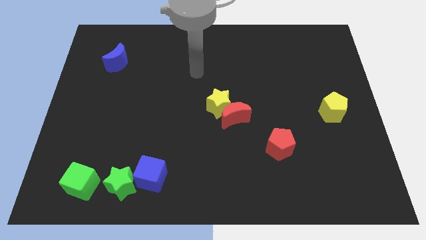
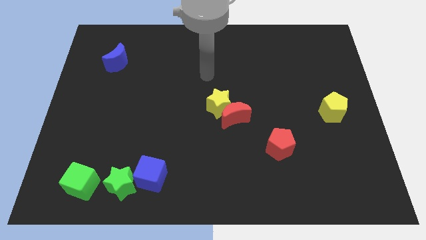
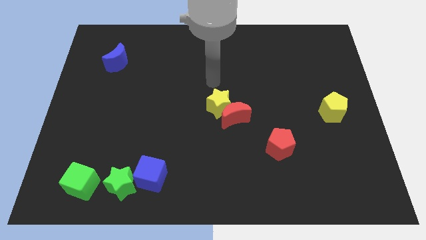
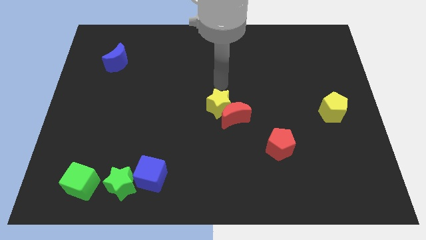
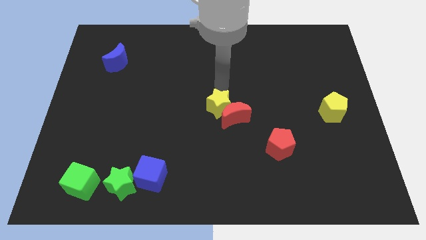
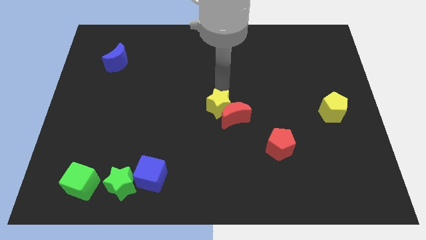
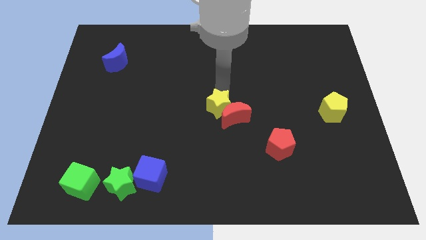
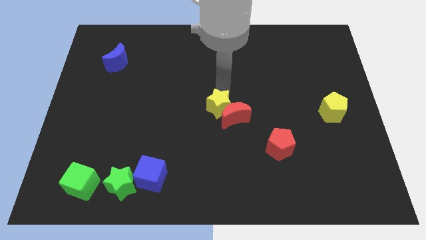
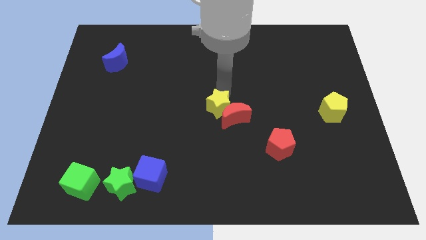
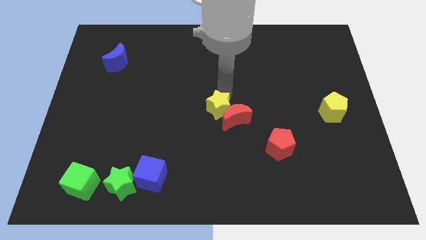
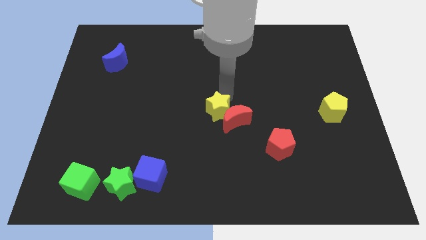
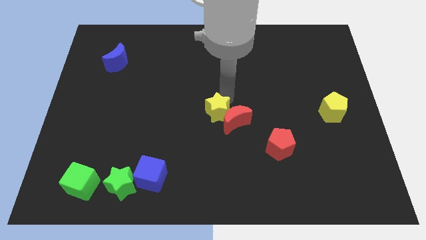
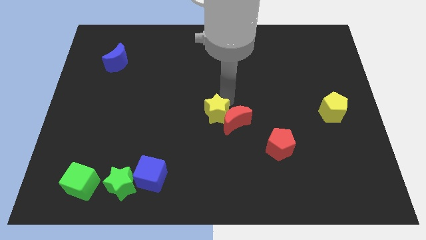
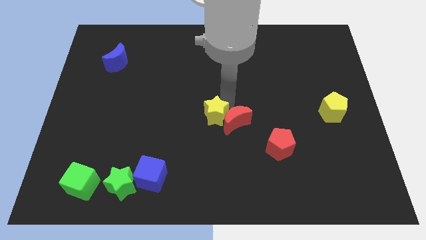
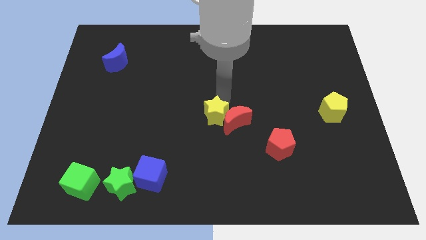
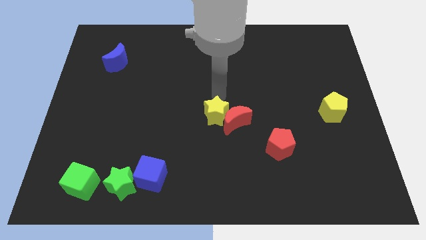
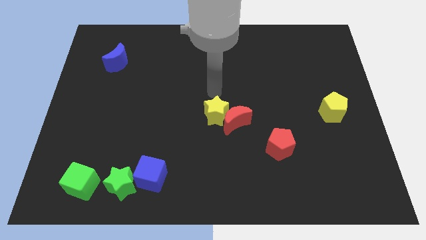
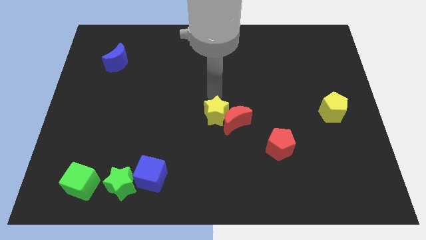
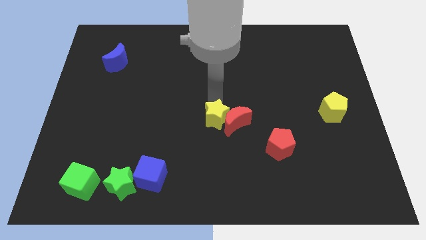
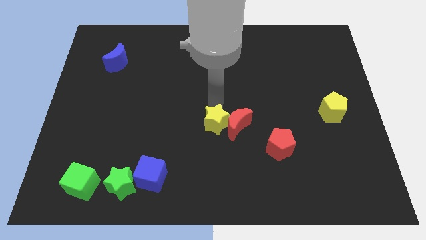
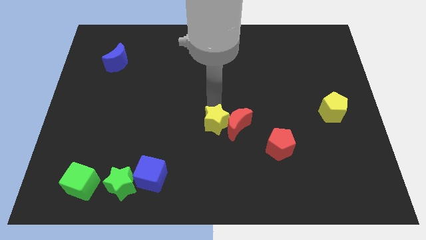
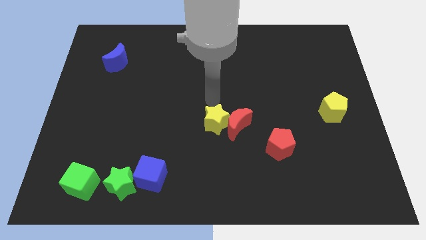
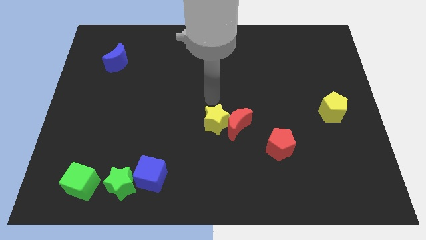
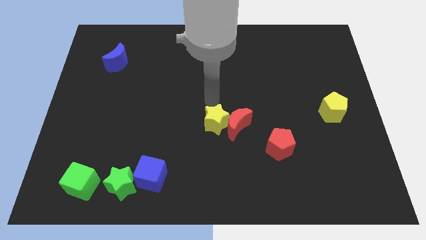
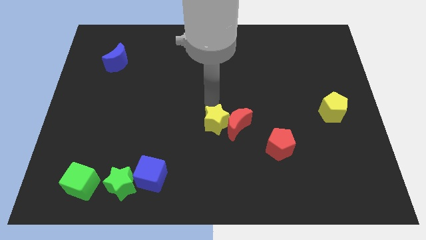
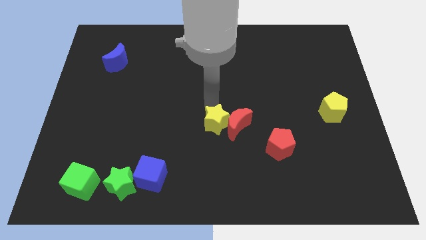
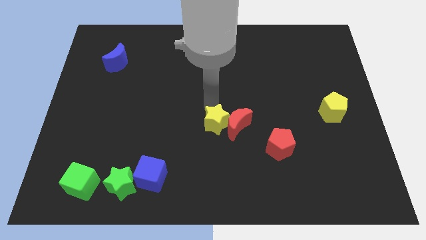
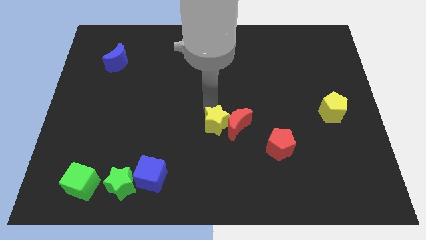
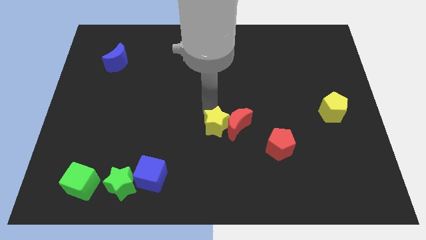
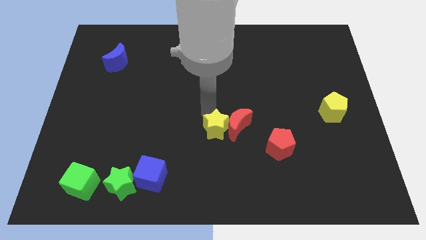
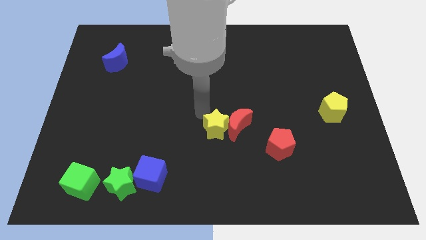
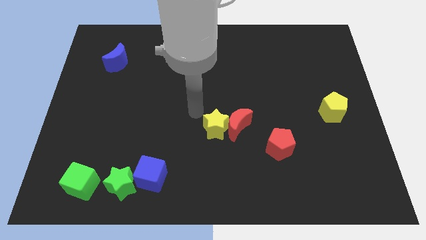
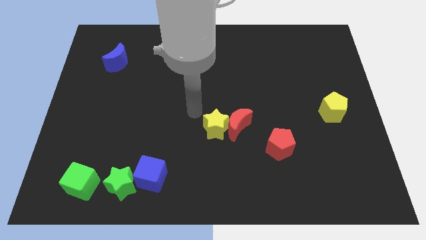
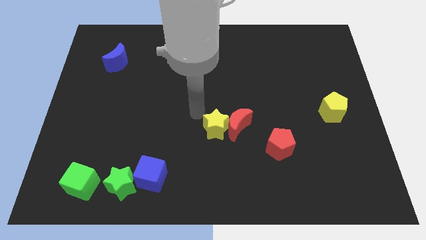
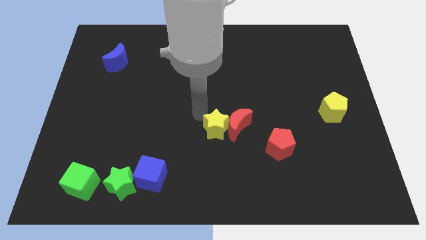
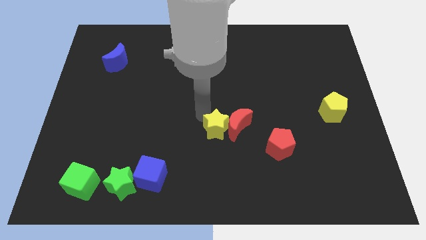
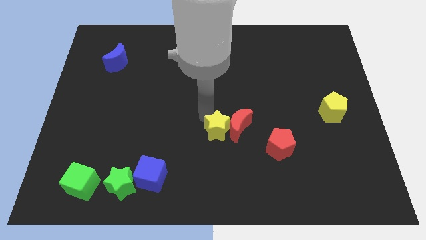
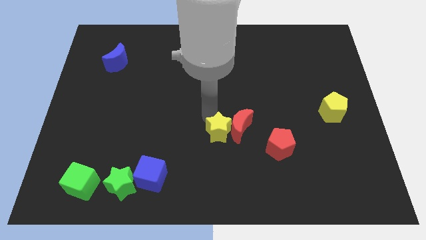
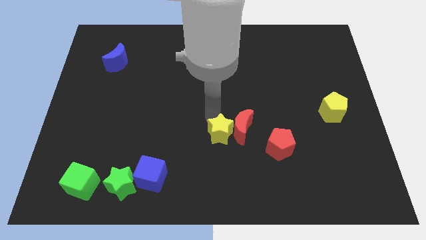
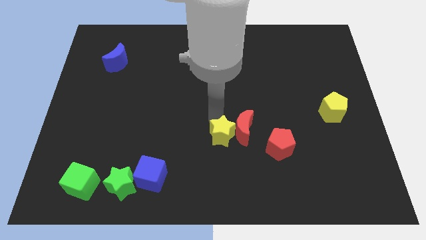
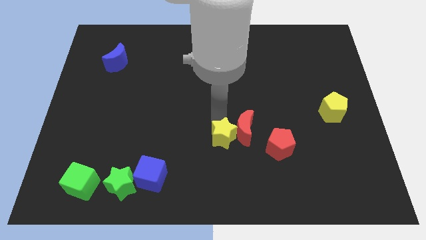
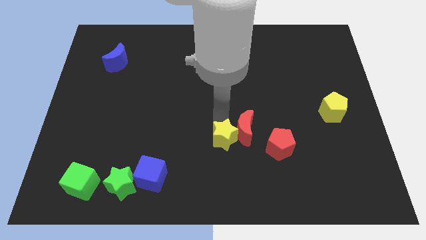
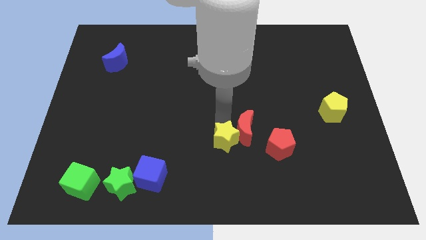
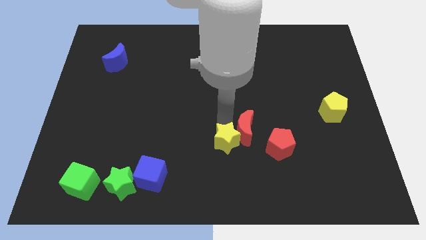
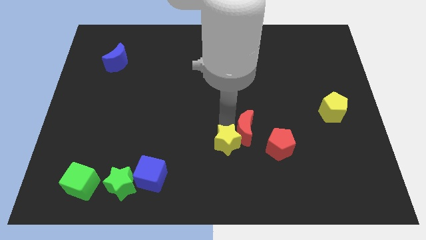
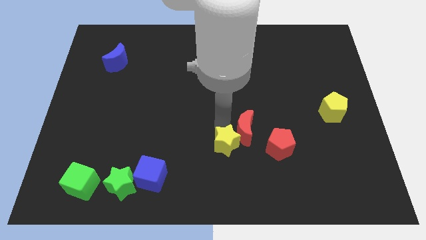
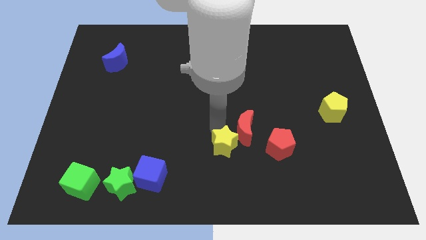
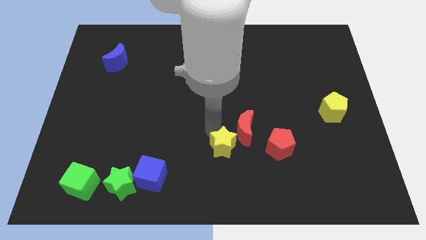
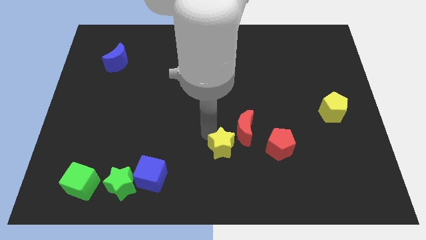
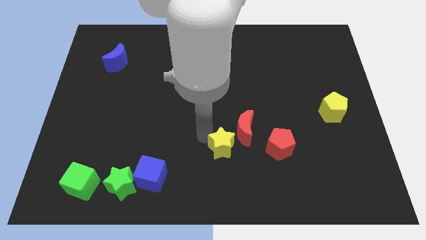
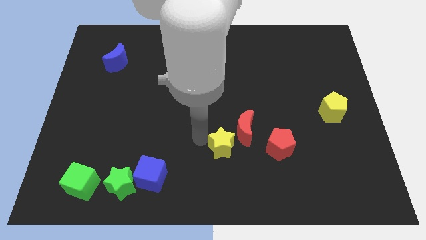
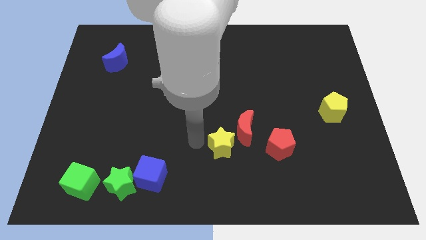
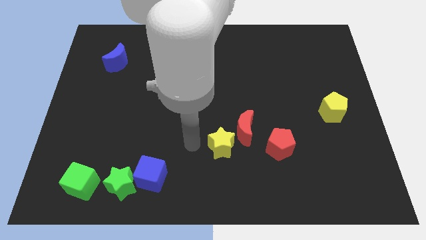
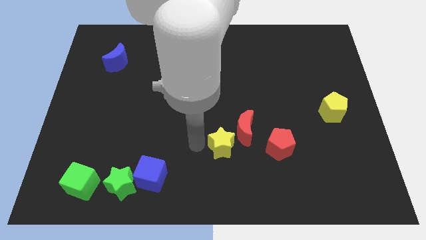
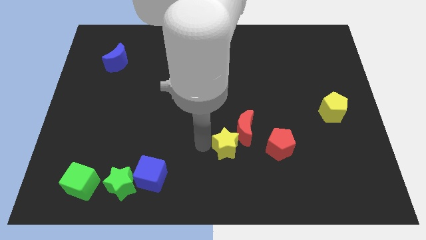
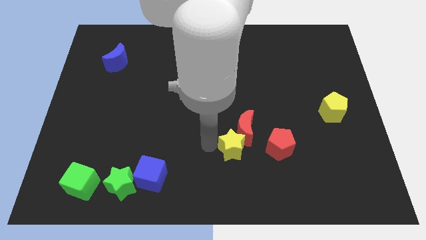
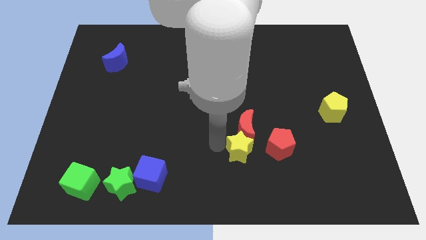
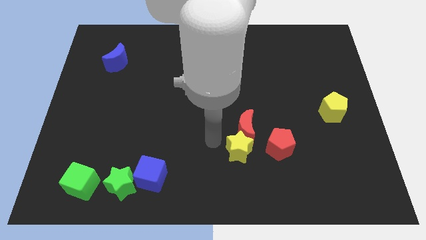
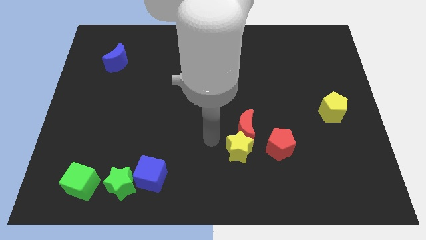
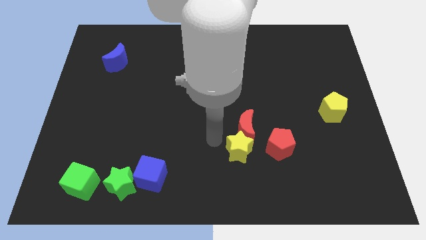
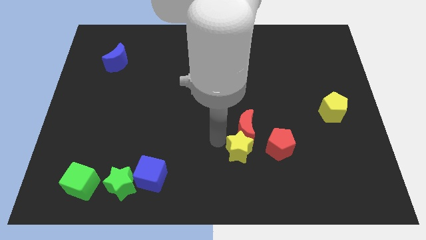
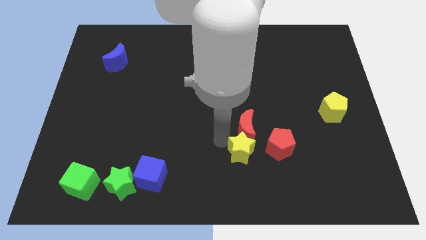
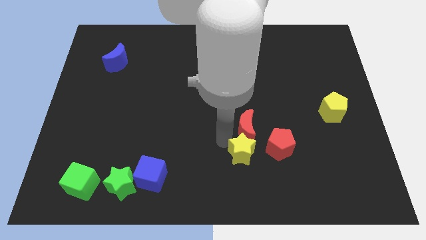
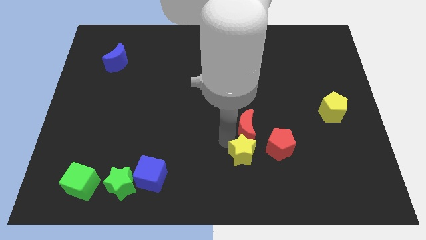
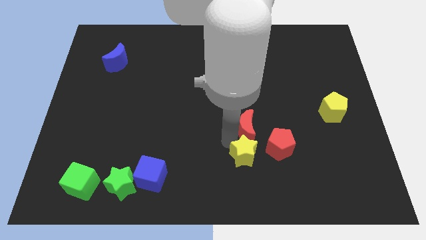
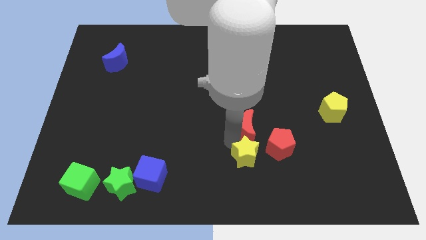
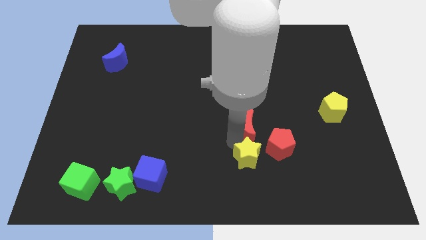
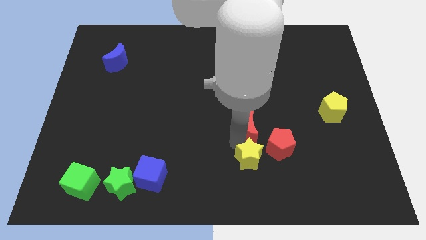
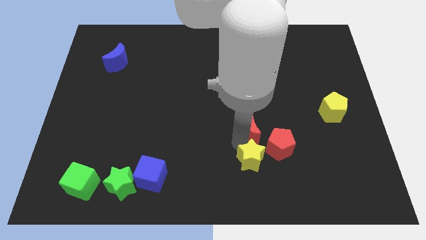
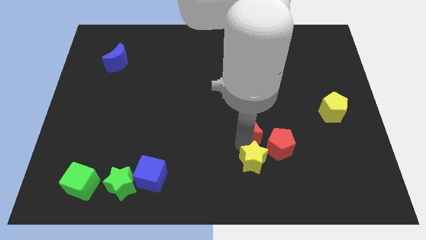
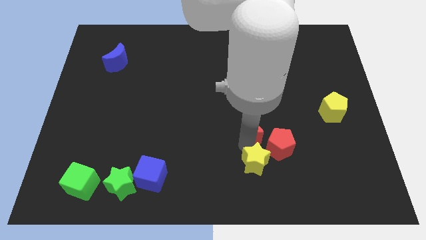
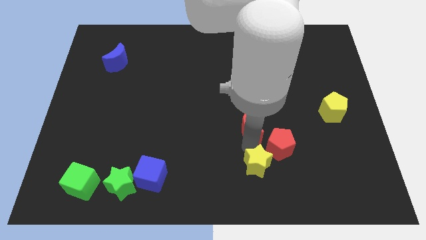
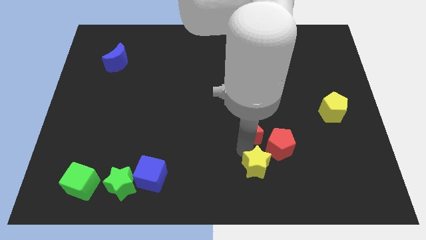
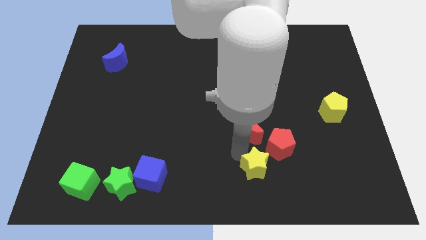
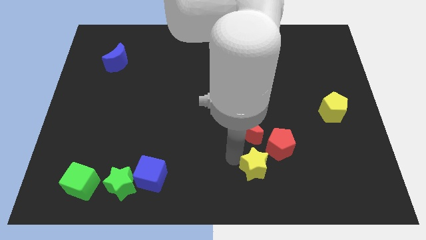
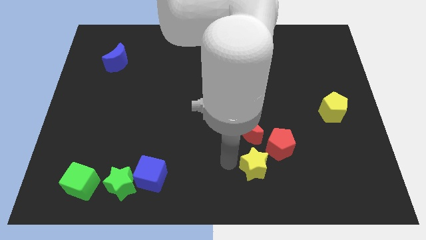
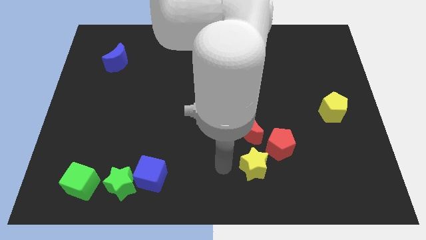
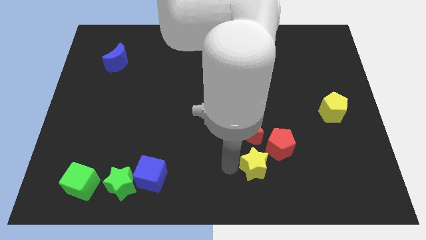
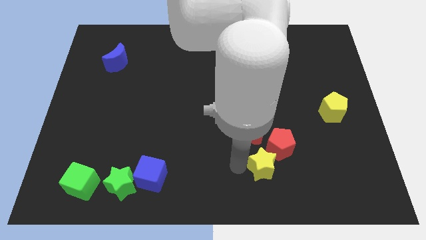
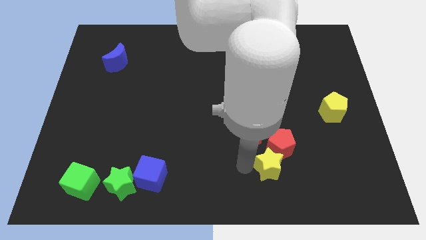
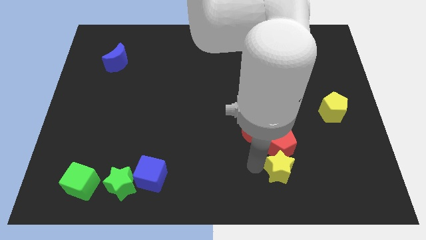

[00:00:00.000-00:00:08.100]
slide the yellow star diagonally down and to the right of the red pentagon
